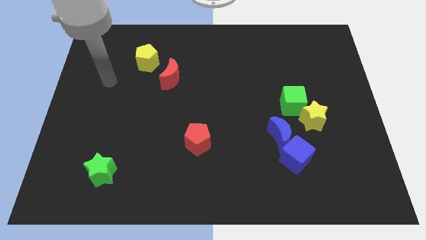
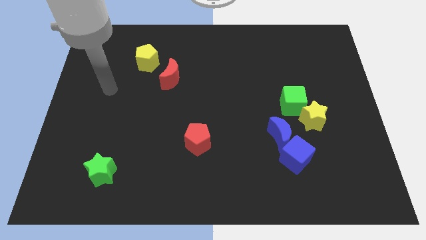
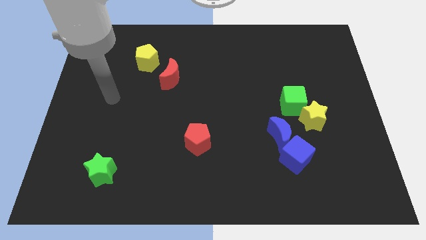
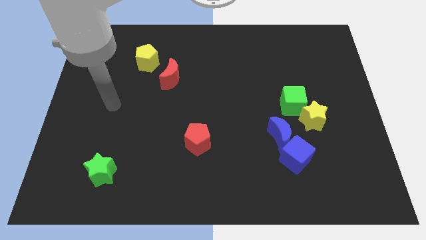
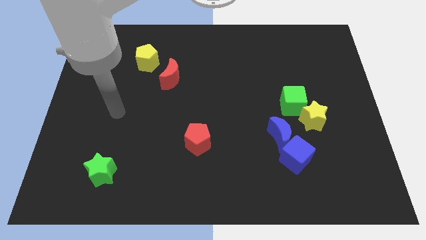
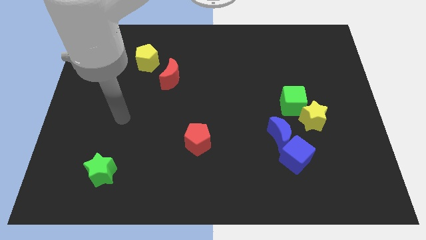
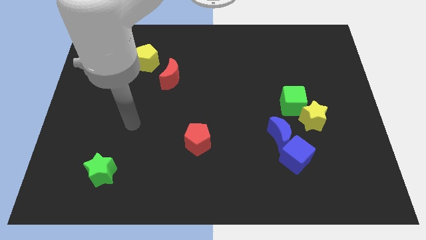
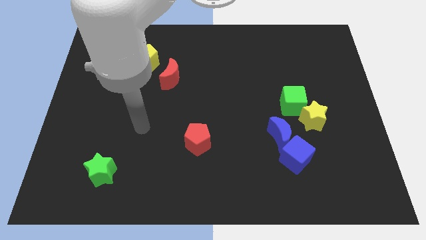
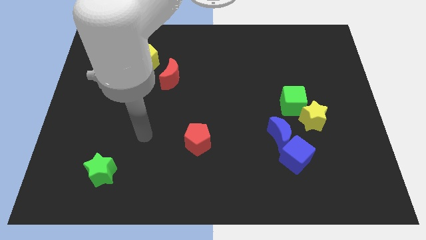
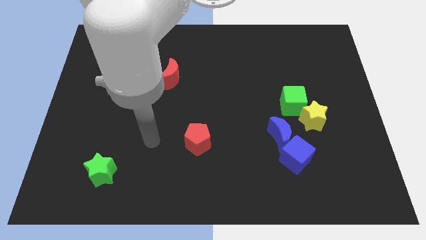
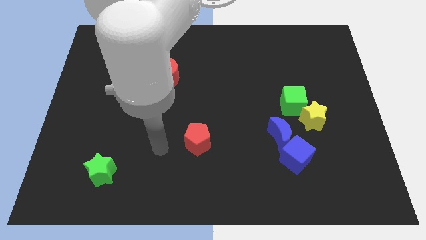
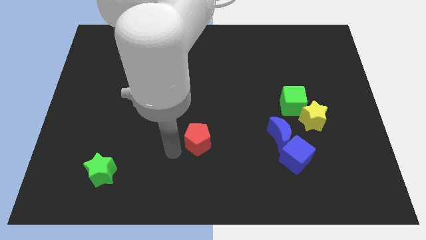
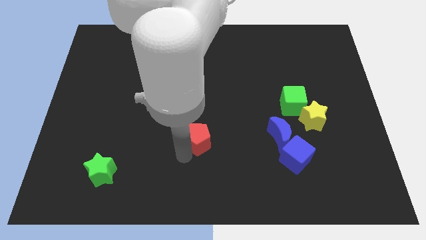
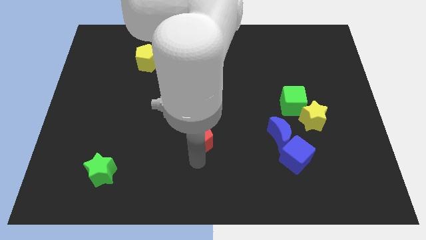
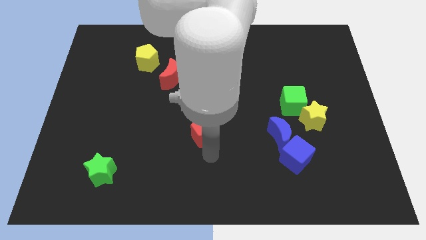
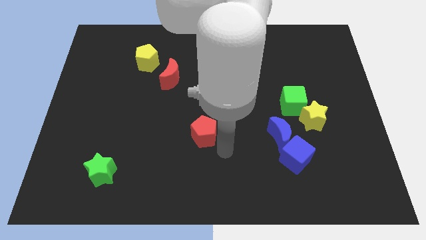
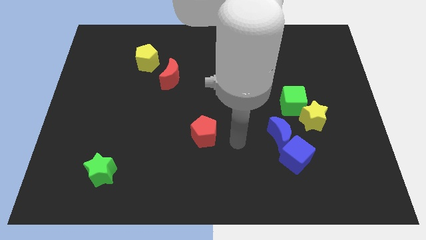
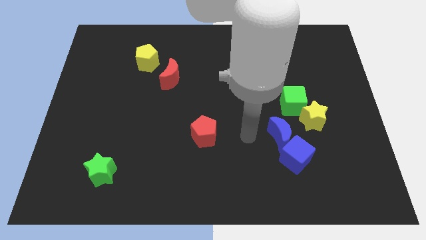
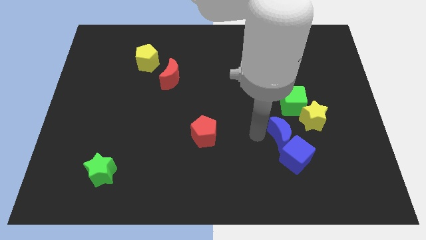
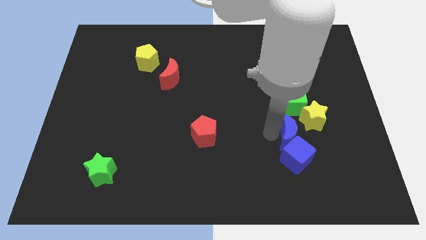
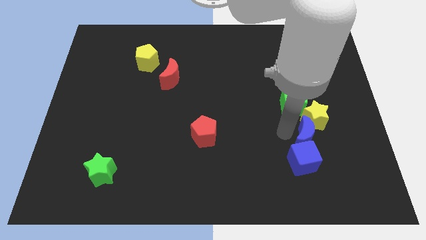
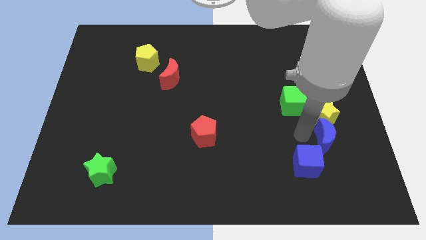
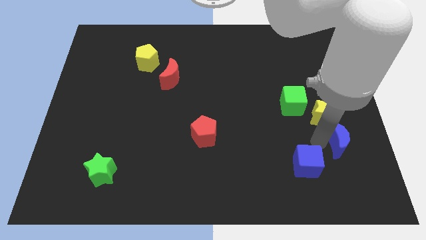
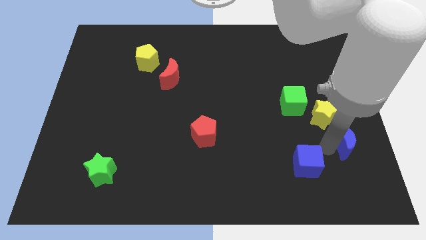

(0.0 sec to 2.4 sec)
move the blue cube away from the blue moon

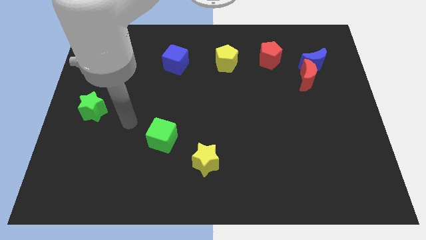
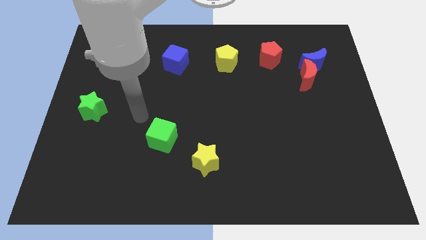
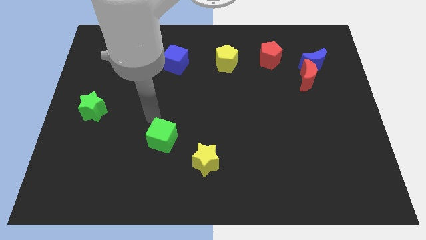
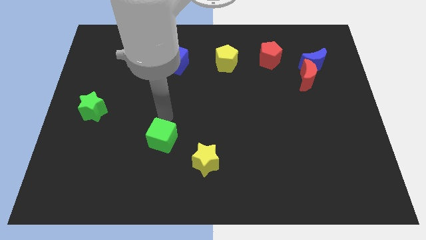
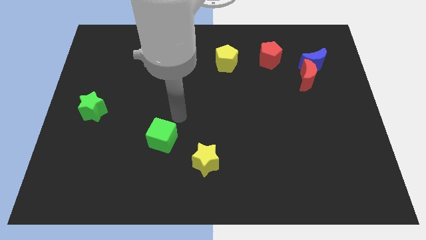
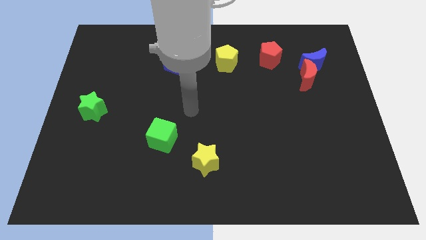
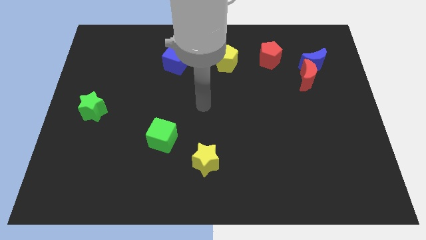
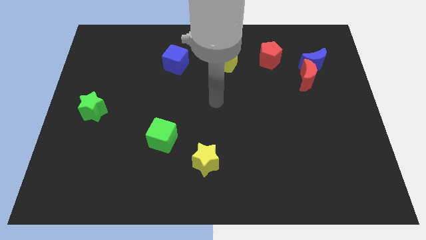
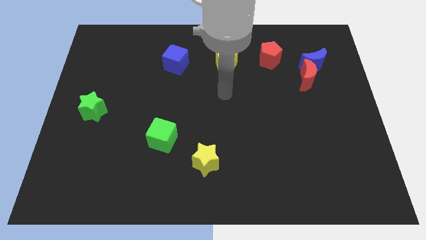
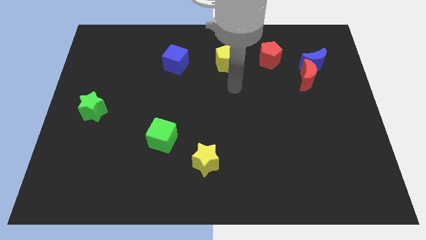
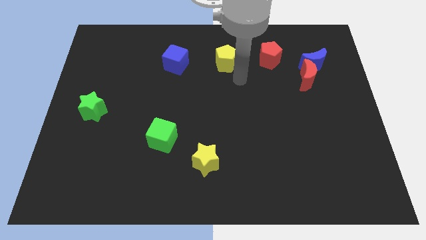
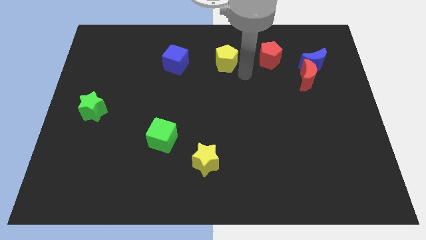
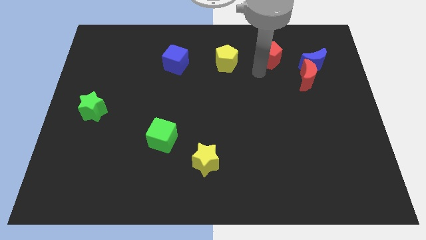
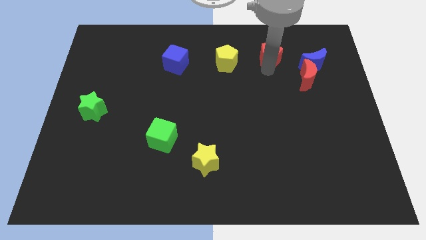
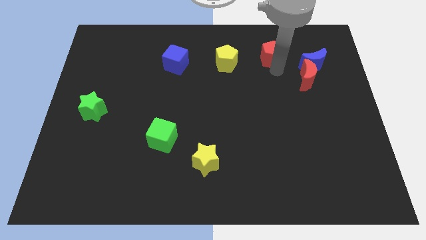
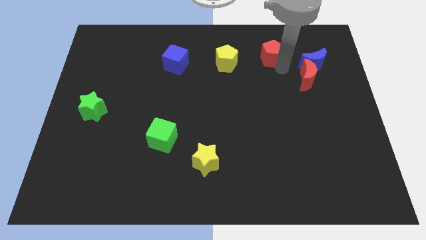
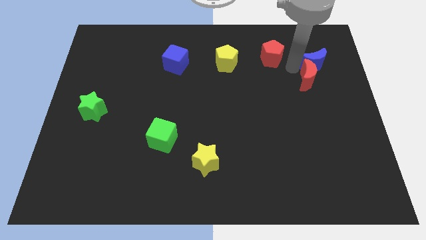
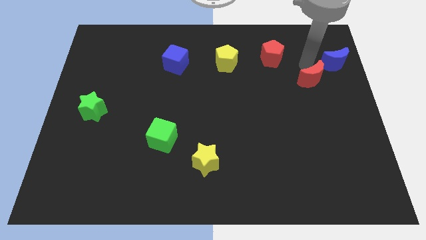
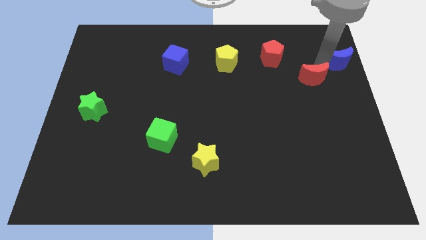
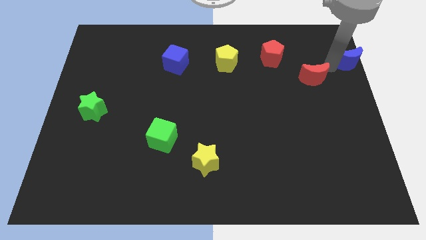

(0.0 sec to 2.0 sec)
separate the red moon from the blue moon

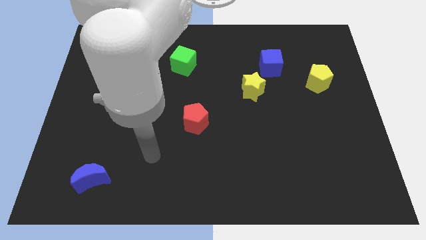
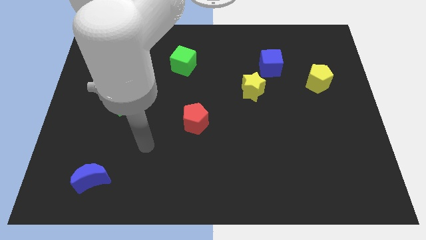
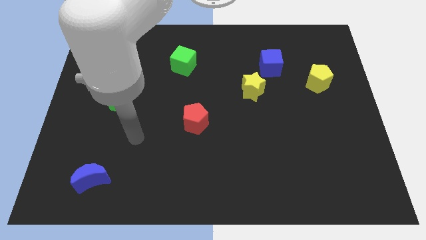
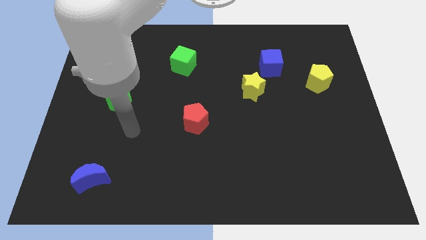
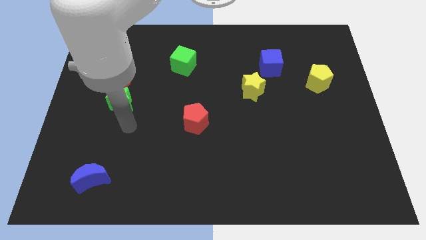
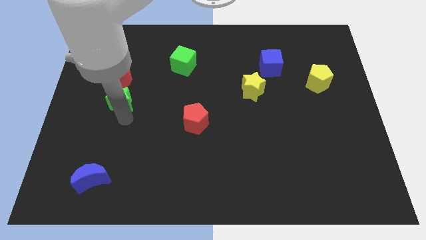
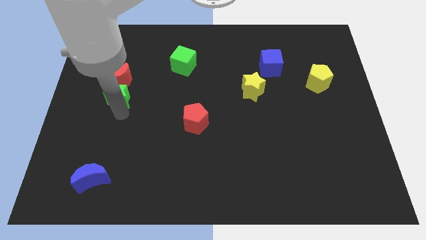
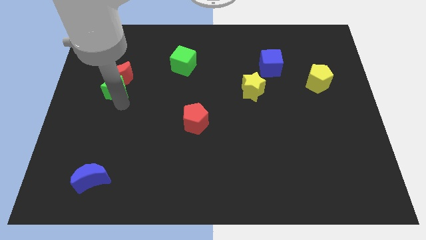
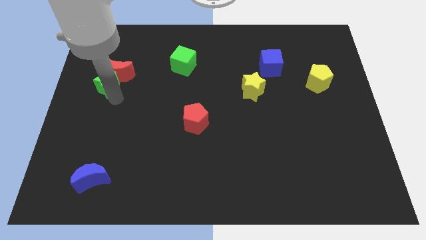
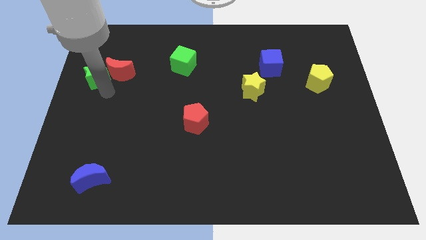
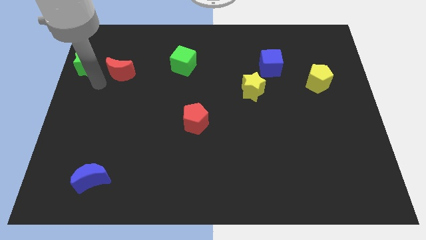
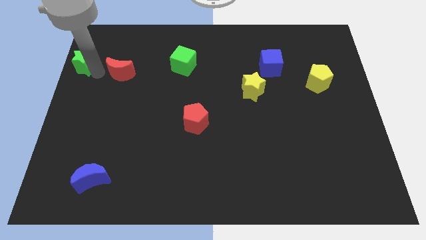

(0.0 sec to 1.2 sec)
pull the red moon apart from the green star

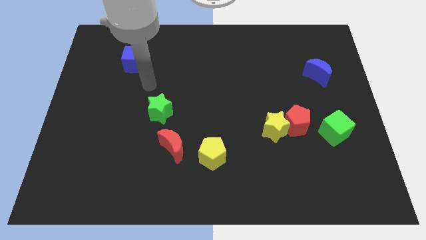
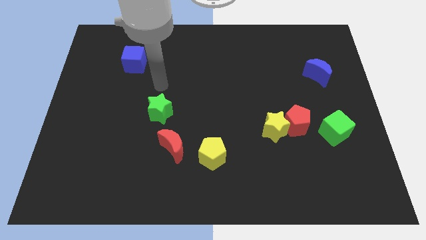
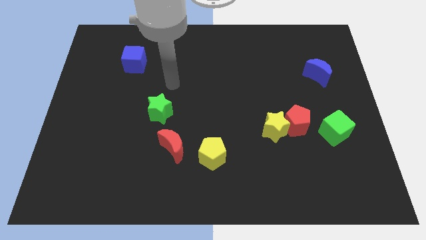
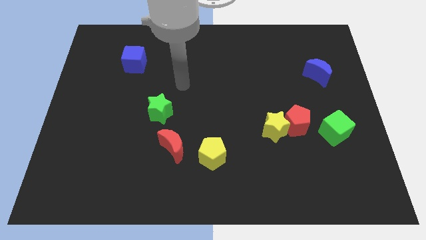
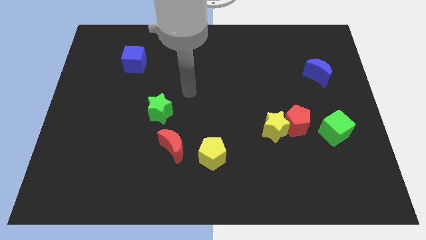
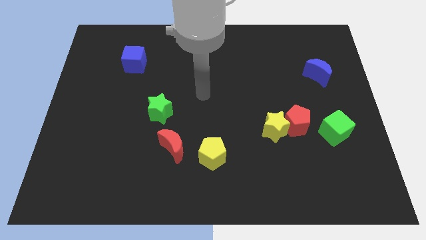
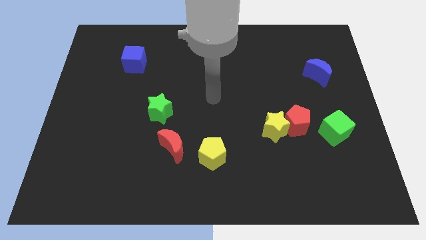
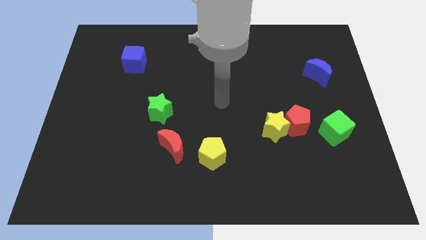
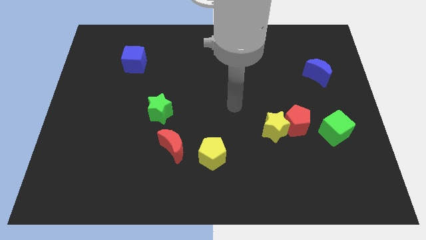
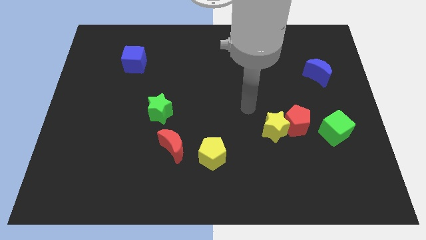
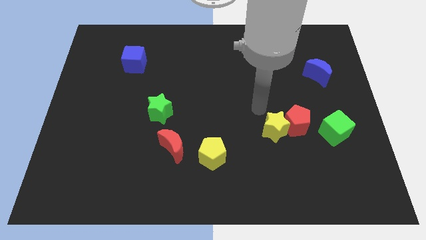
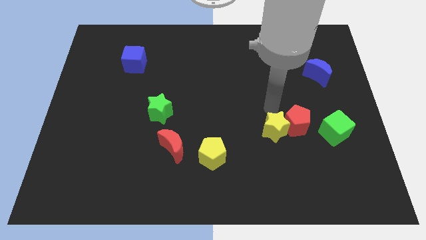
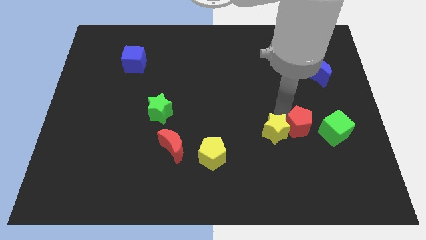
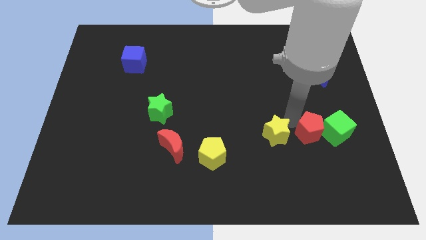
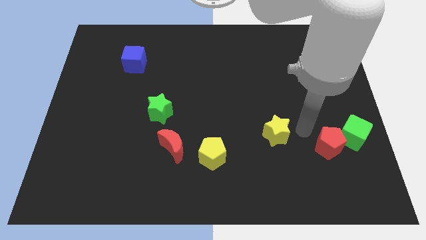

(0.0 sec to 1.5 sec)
move the yellow star away from the red pentagon

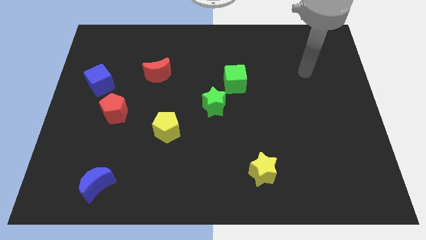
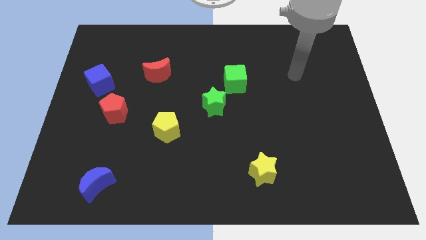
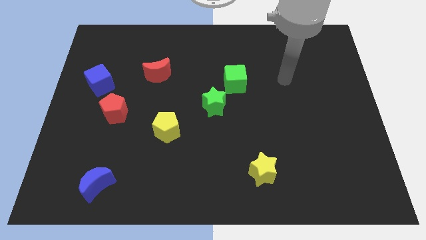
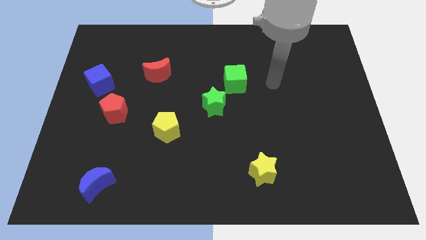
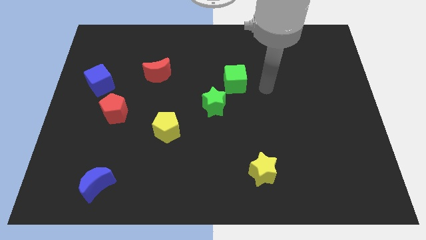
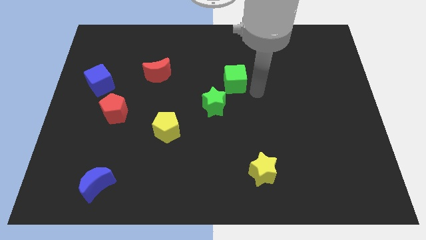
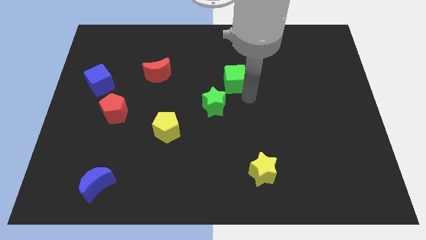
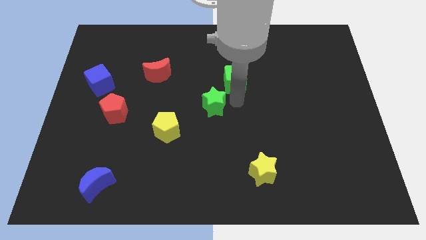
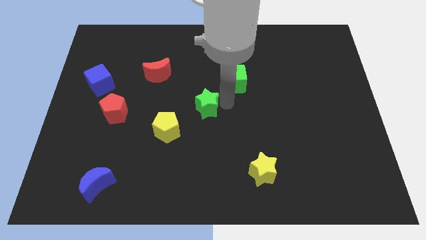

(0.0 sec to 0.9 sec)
move the green cube away from the green star

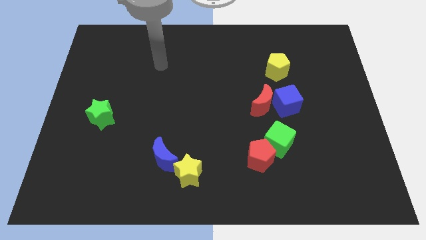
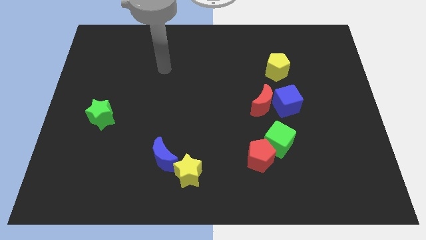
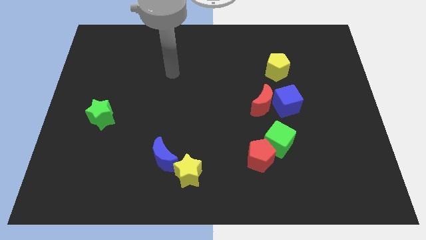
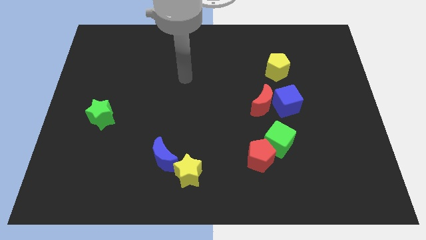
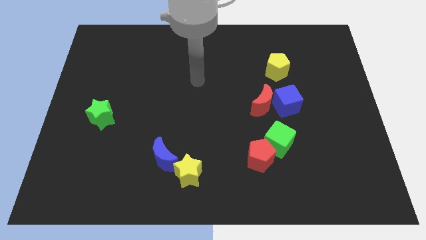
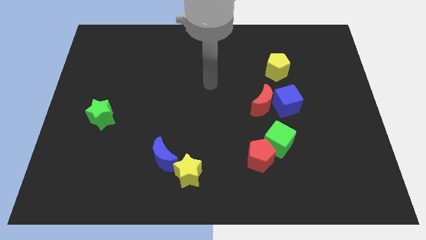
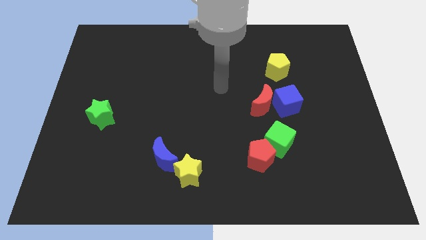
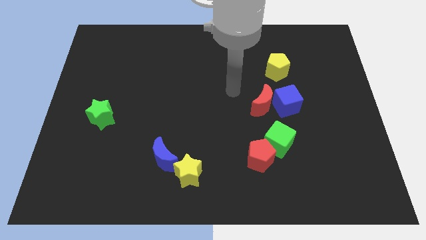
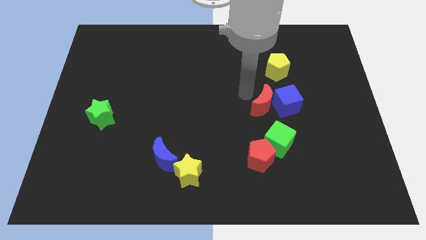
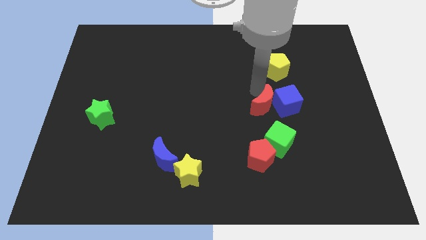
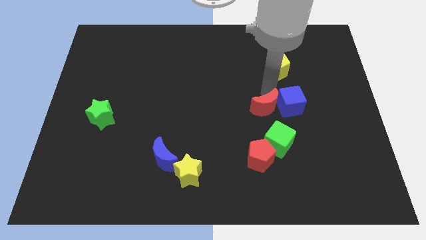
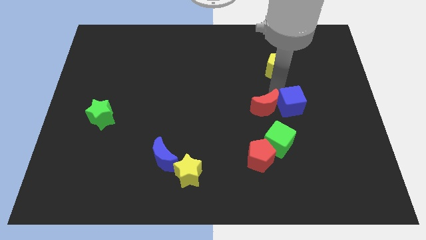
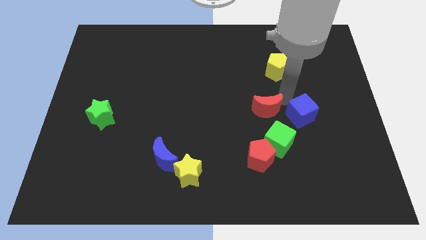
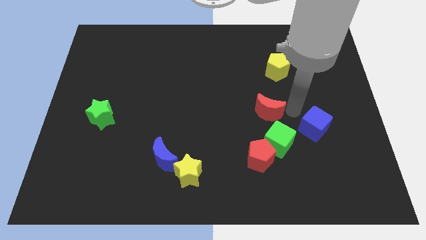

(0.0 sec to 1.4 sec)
move the red moon away from the blue cube
